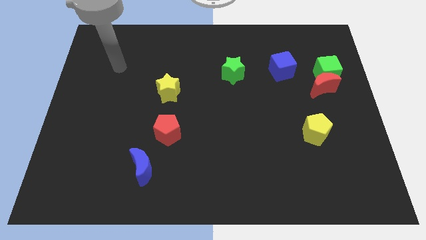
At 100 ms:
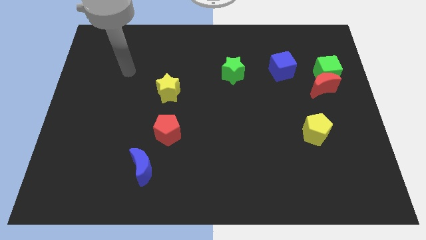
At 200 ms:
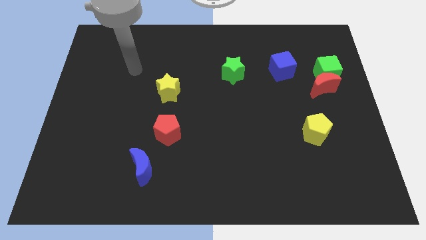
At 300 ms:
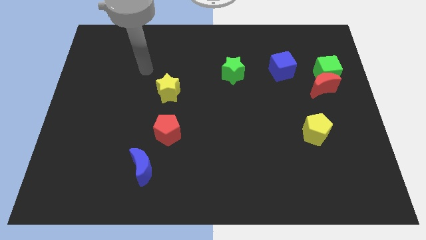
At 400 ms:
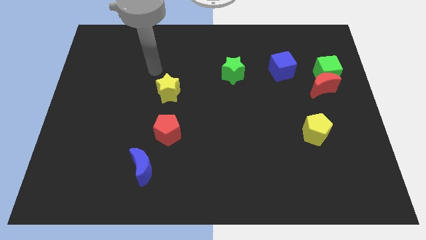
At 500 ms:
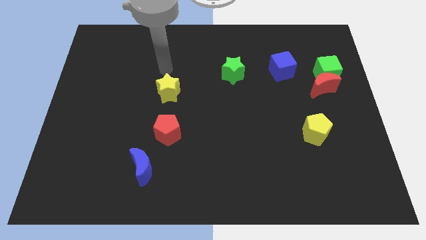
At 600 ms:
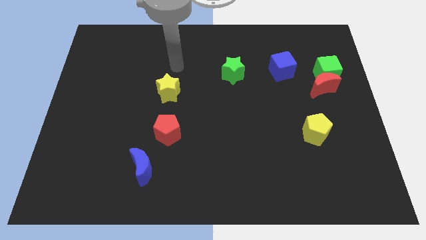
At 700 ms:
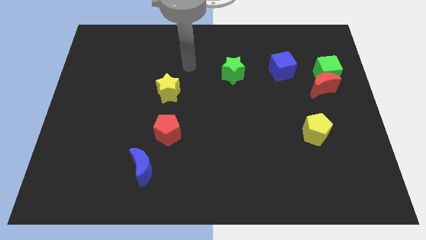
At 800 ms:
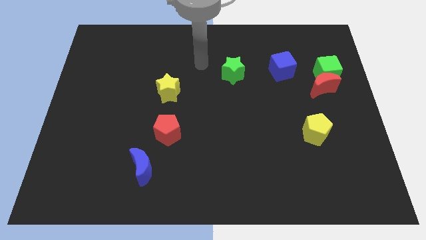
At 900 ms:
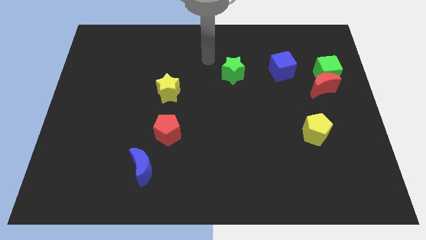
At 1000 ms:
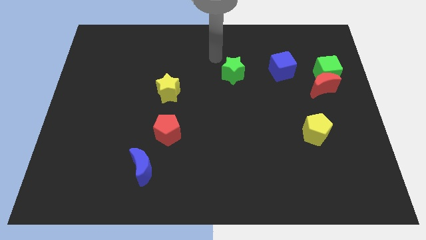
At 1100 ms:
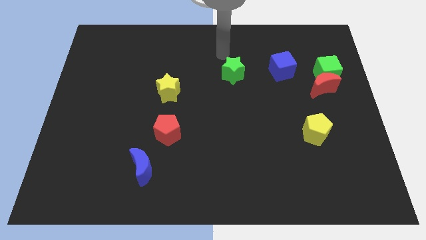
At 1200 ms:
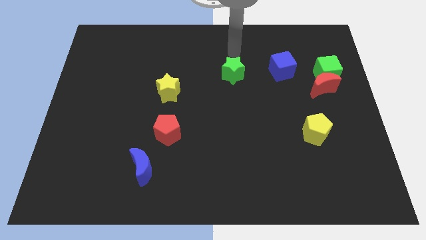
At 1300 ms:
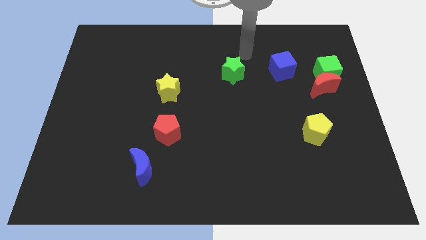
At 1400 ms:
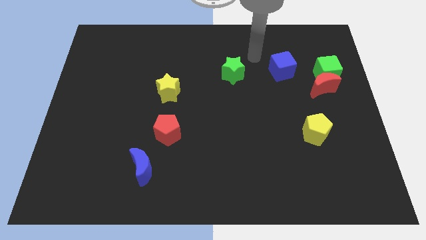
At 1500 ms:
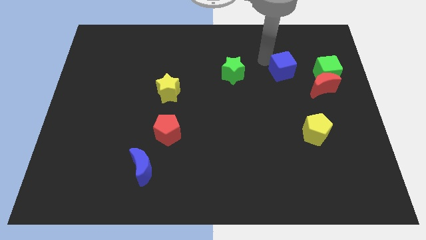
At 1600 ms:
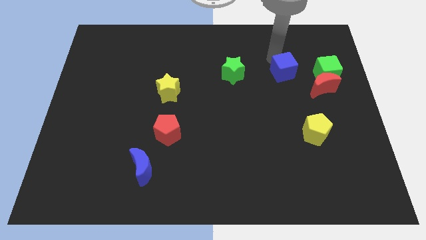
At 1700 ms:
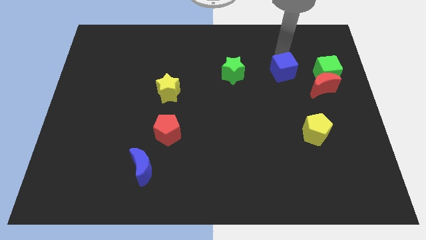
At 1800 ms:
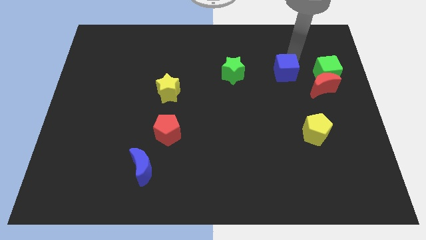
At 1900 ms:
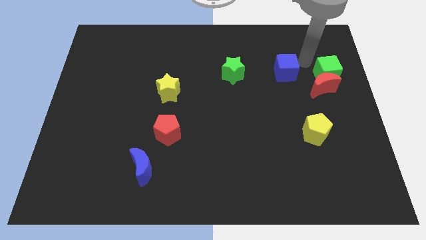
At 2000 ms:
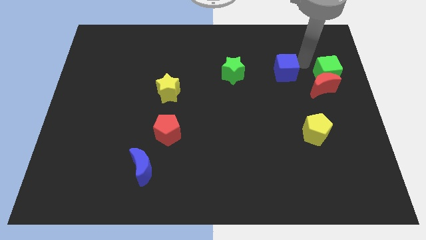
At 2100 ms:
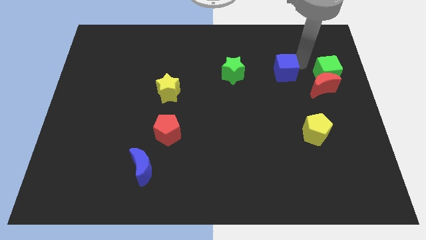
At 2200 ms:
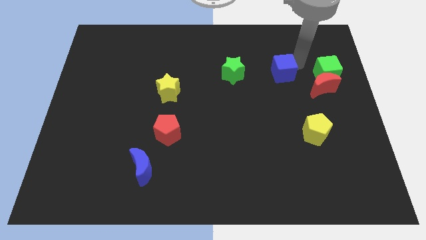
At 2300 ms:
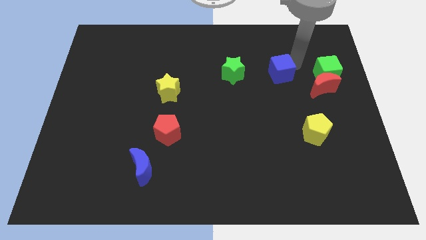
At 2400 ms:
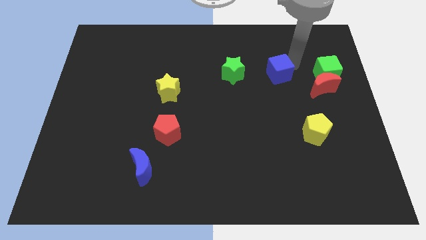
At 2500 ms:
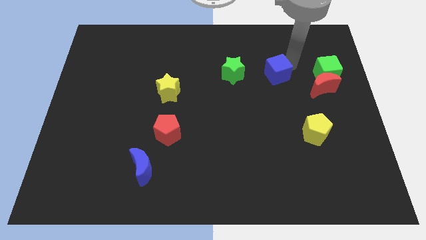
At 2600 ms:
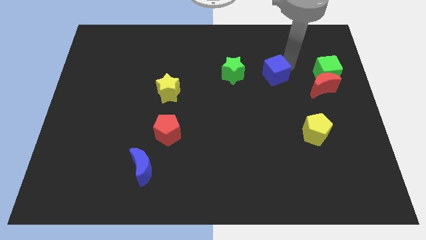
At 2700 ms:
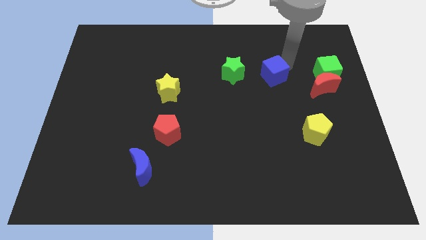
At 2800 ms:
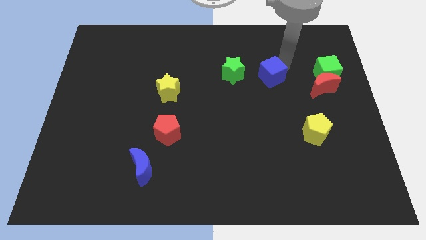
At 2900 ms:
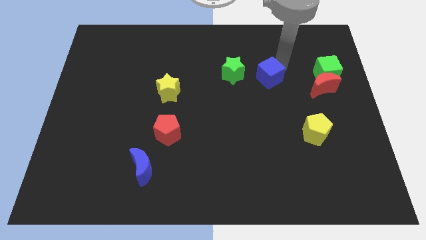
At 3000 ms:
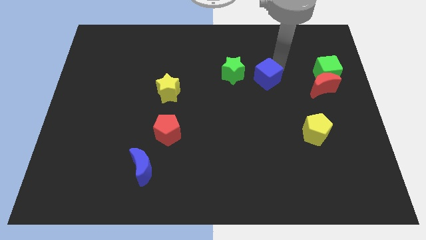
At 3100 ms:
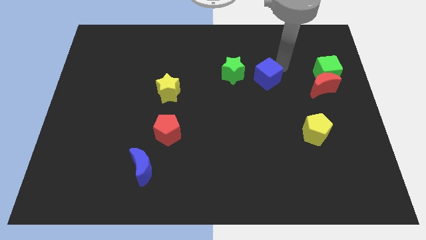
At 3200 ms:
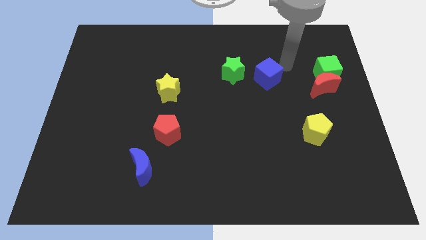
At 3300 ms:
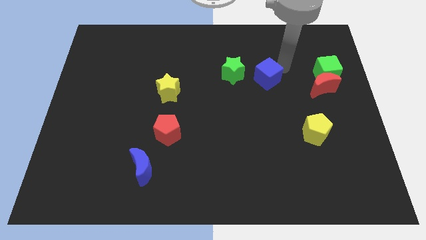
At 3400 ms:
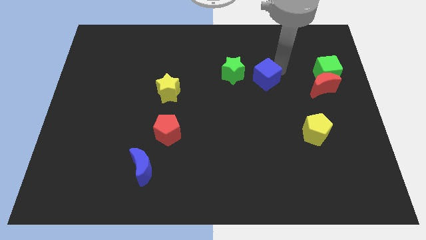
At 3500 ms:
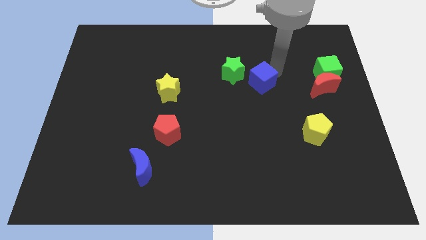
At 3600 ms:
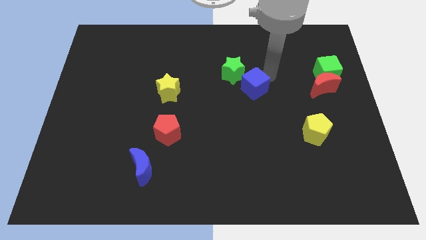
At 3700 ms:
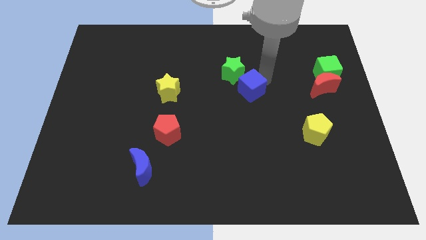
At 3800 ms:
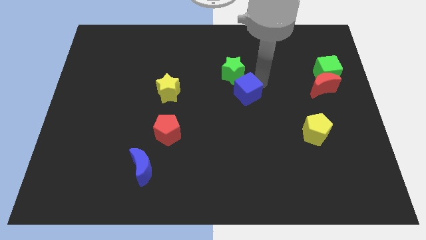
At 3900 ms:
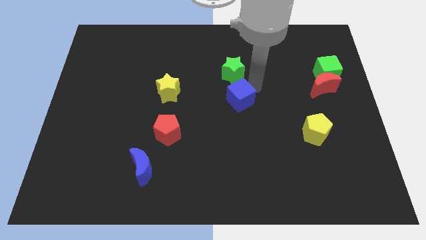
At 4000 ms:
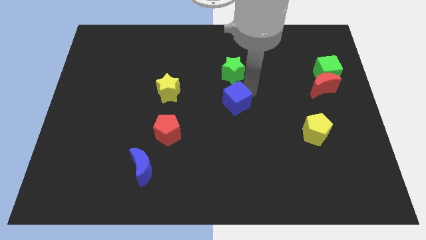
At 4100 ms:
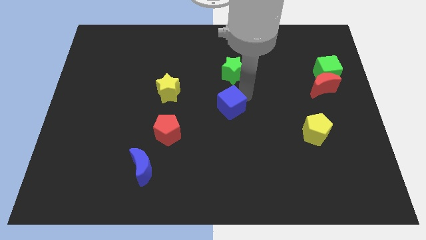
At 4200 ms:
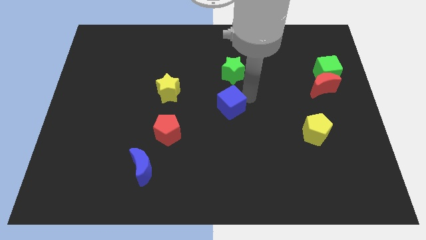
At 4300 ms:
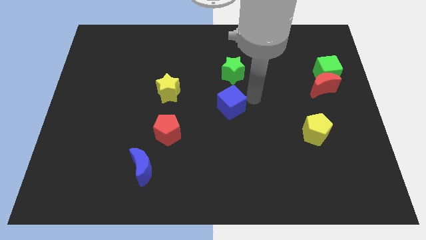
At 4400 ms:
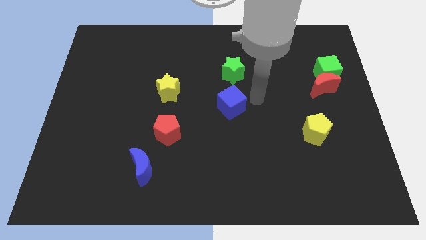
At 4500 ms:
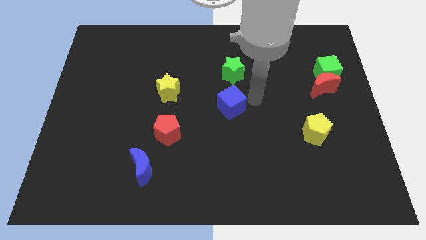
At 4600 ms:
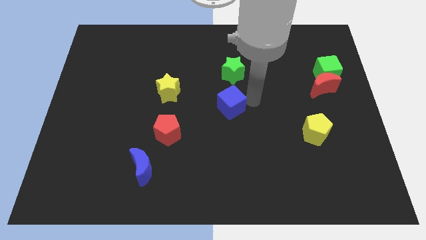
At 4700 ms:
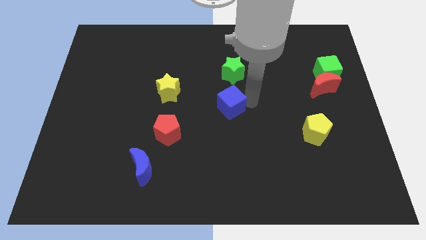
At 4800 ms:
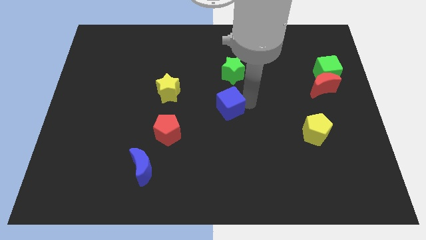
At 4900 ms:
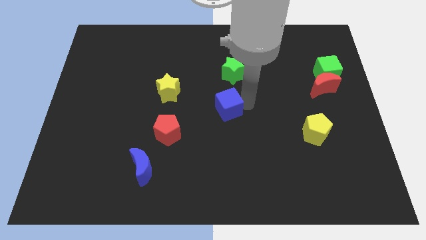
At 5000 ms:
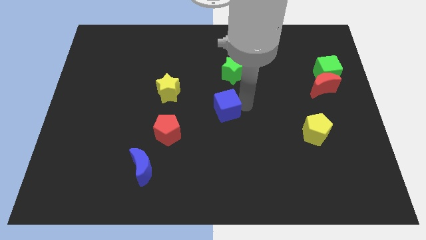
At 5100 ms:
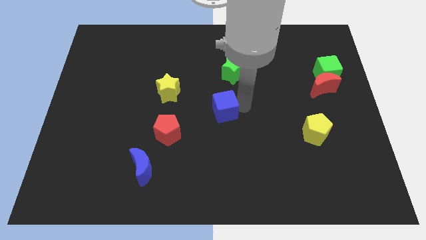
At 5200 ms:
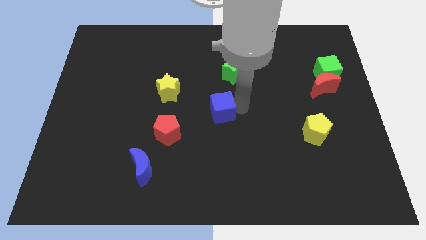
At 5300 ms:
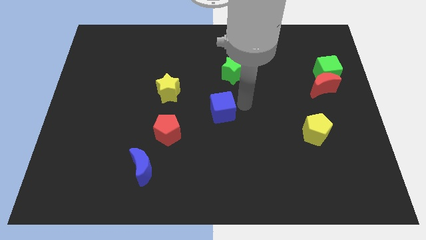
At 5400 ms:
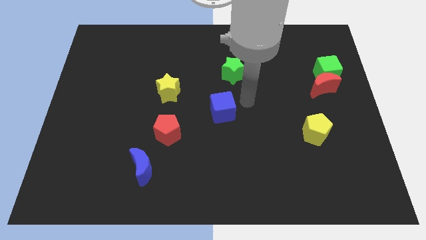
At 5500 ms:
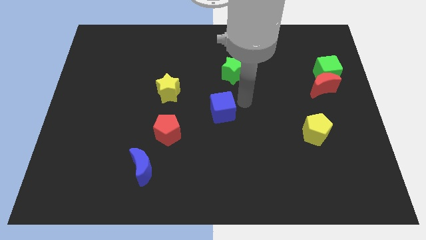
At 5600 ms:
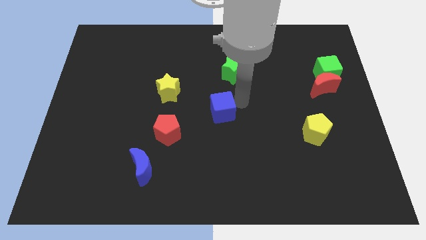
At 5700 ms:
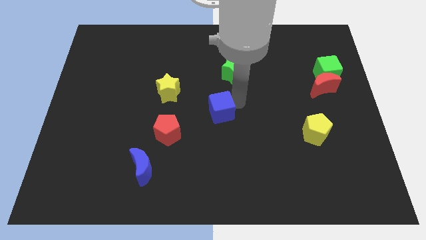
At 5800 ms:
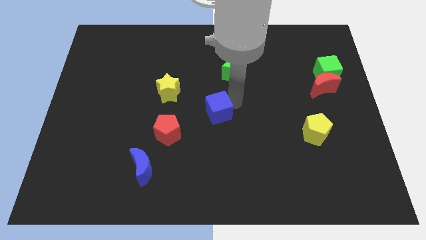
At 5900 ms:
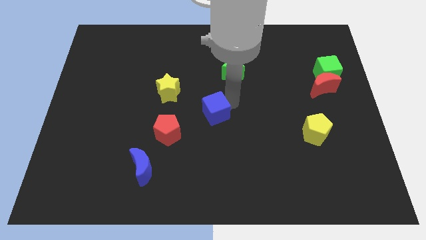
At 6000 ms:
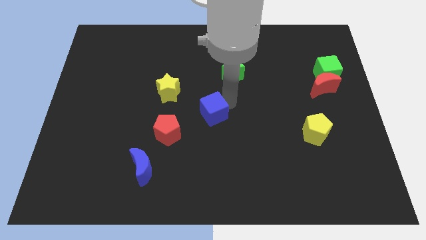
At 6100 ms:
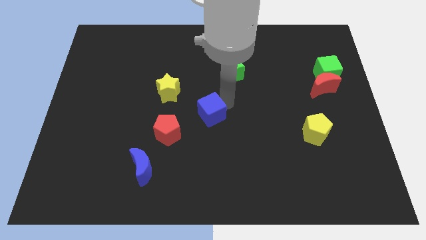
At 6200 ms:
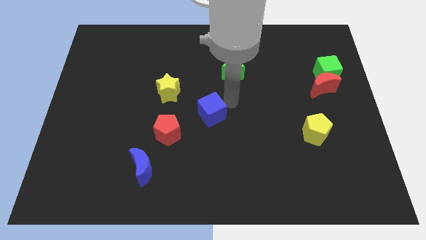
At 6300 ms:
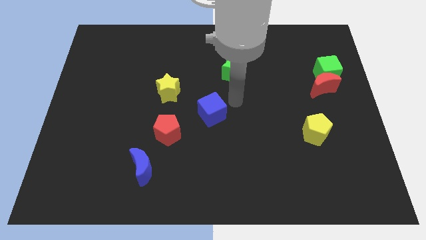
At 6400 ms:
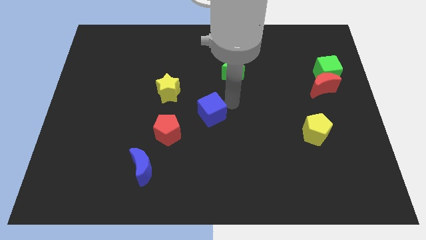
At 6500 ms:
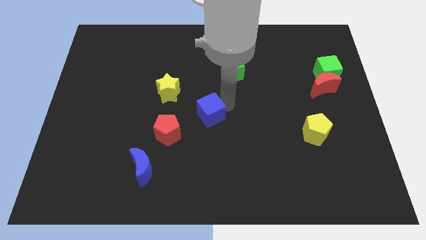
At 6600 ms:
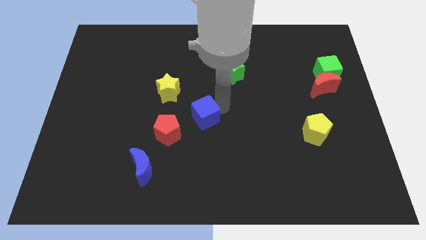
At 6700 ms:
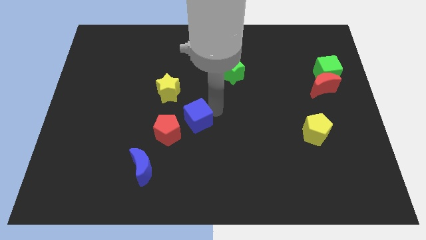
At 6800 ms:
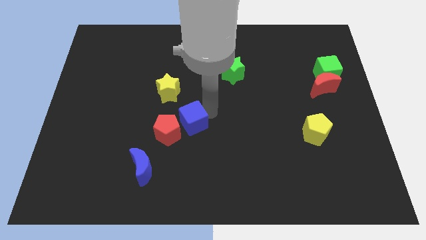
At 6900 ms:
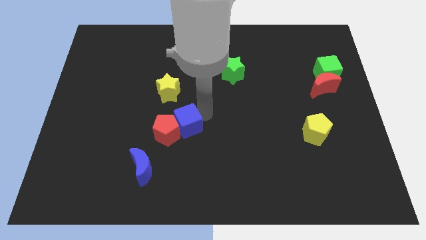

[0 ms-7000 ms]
slide the blue cube close to the red pentagon

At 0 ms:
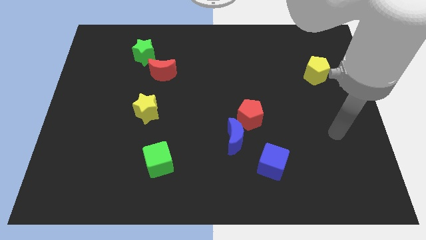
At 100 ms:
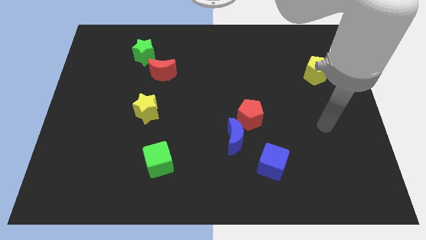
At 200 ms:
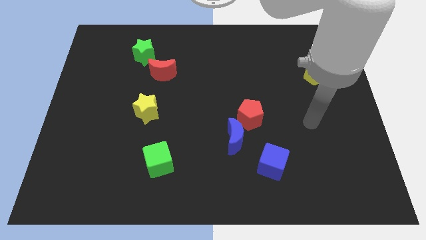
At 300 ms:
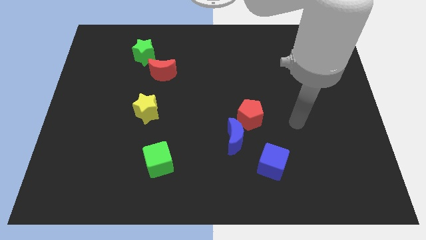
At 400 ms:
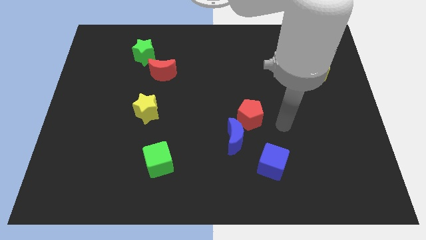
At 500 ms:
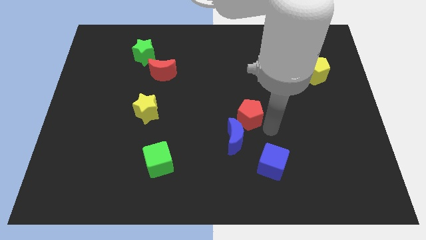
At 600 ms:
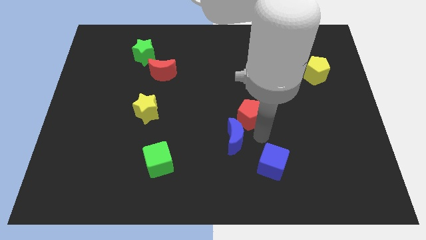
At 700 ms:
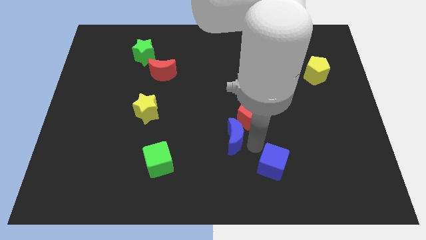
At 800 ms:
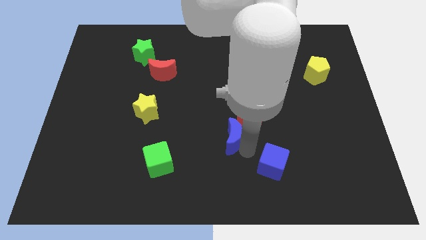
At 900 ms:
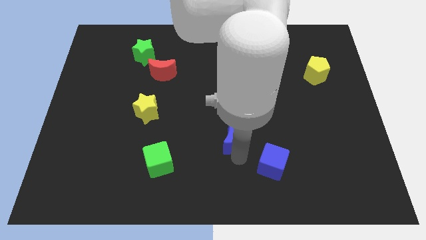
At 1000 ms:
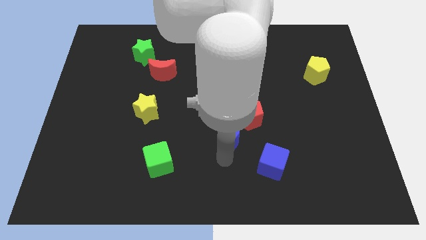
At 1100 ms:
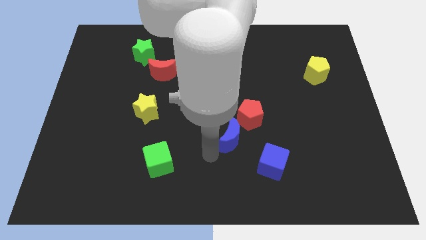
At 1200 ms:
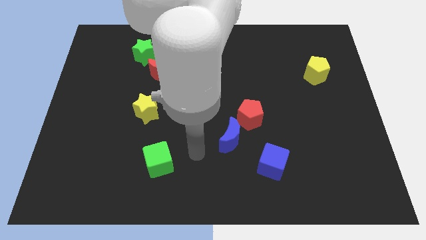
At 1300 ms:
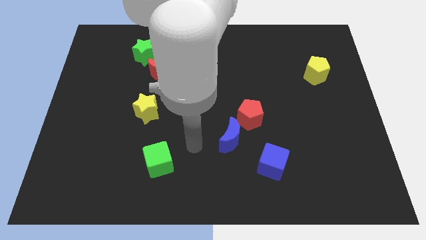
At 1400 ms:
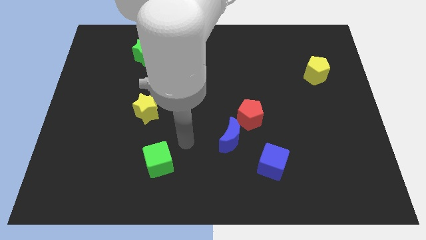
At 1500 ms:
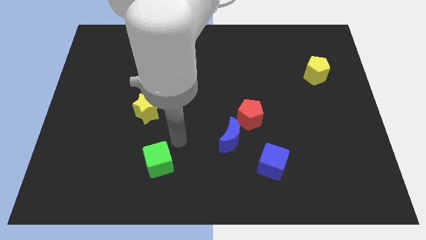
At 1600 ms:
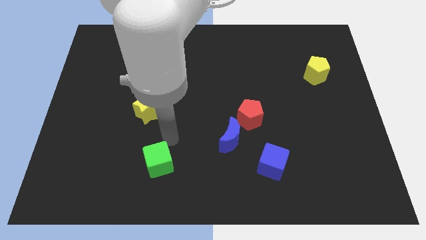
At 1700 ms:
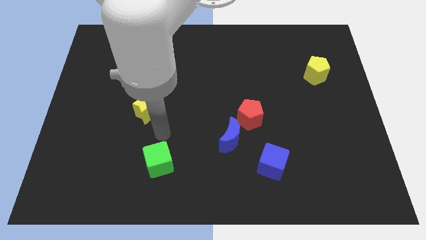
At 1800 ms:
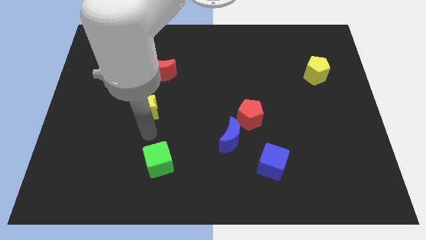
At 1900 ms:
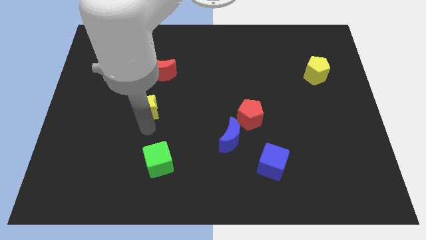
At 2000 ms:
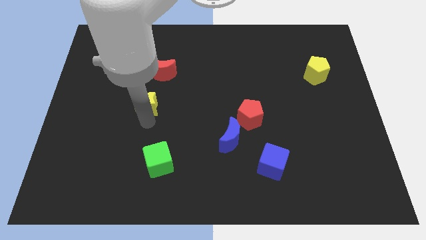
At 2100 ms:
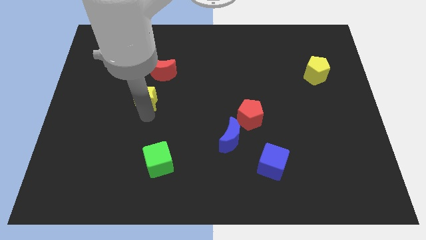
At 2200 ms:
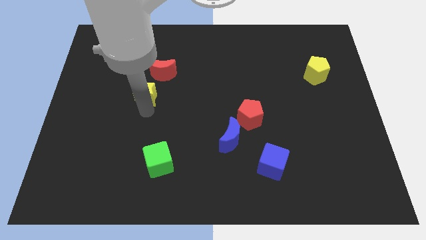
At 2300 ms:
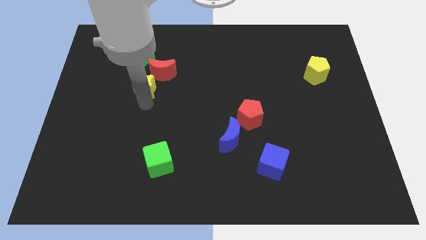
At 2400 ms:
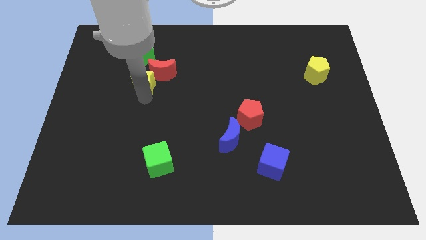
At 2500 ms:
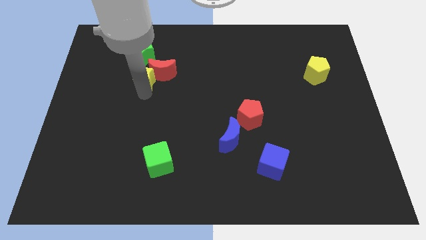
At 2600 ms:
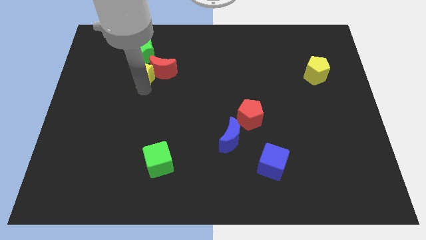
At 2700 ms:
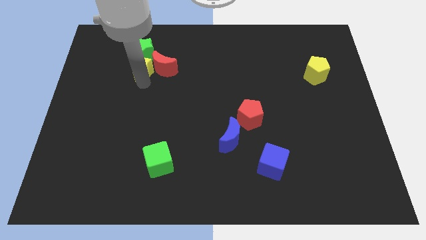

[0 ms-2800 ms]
push the yellow star to the green star
